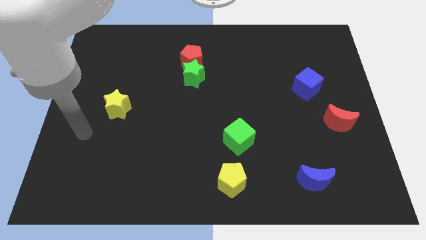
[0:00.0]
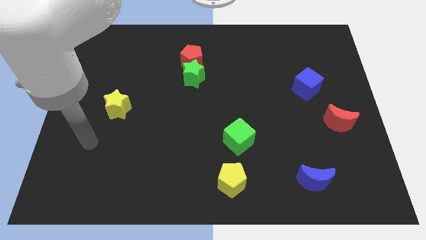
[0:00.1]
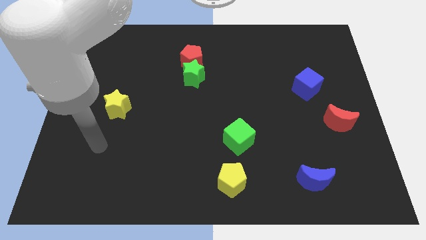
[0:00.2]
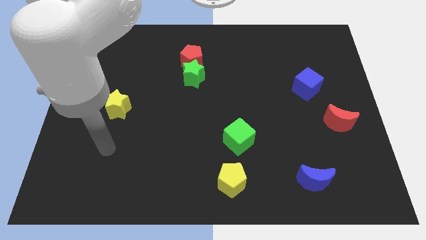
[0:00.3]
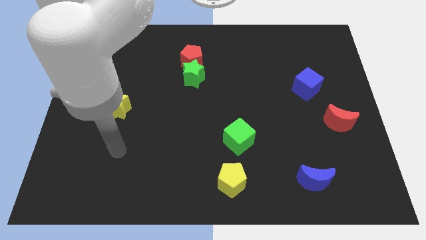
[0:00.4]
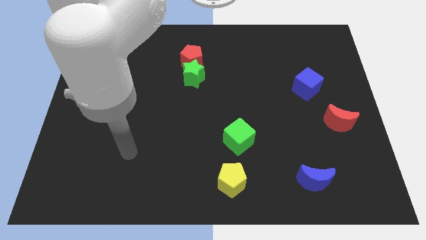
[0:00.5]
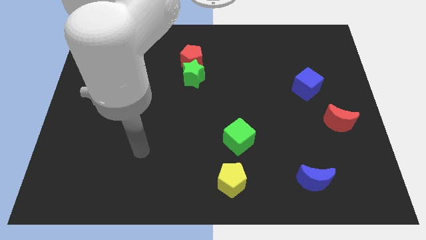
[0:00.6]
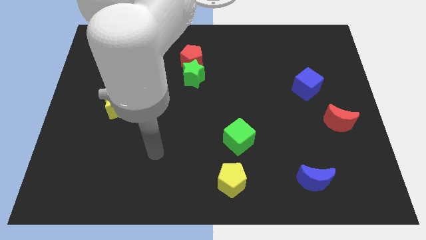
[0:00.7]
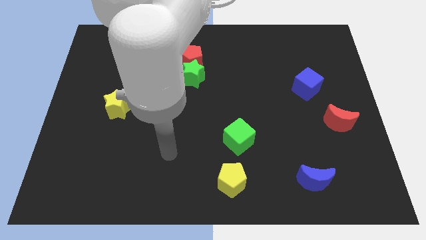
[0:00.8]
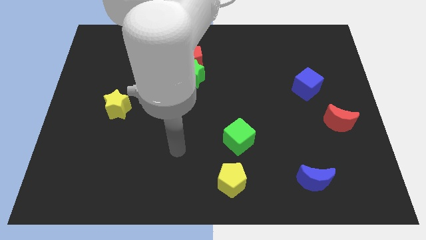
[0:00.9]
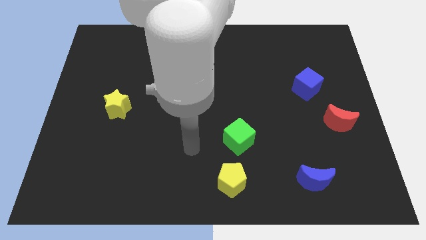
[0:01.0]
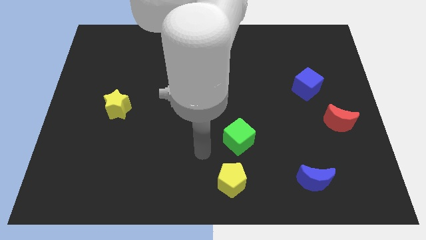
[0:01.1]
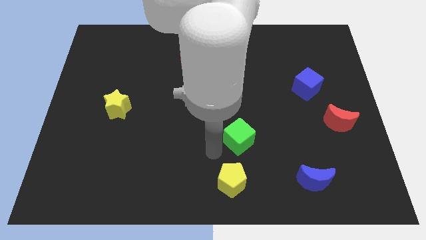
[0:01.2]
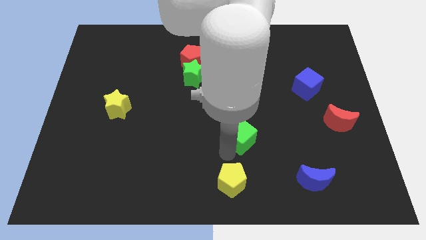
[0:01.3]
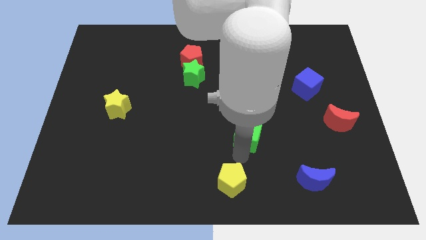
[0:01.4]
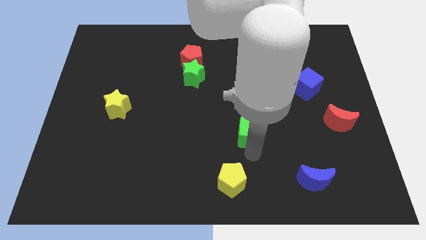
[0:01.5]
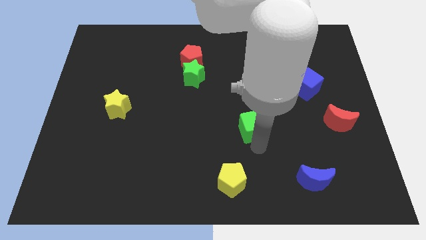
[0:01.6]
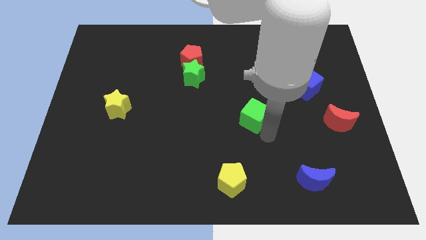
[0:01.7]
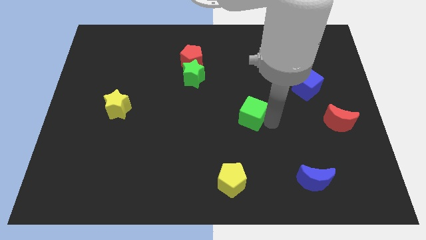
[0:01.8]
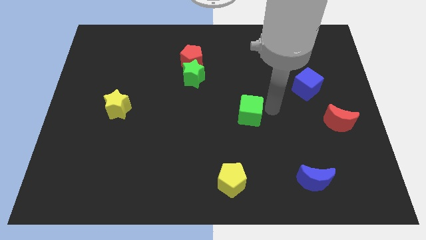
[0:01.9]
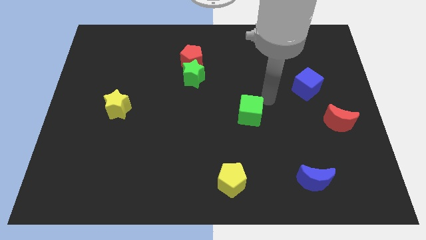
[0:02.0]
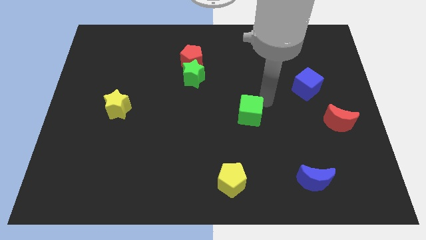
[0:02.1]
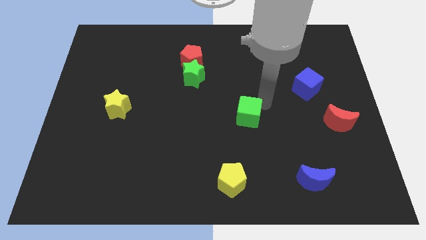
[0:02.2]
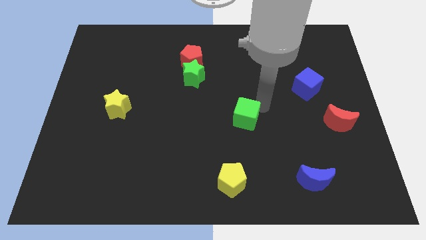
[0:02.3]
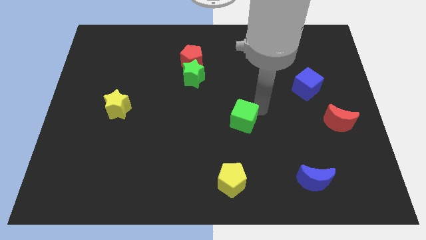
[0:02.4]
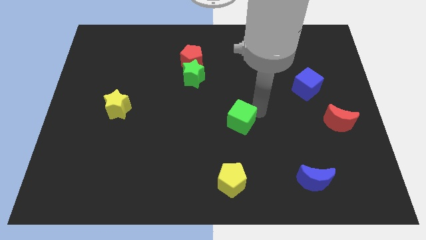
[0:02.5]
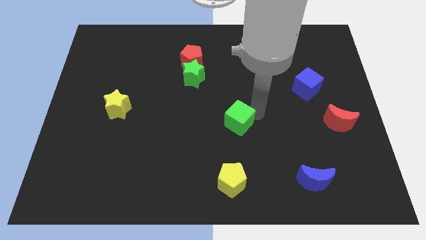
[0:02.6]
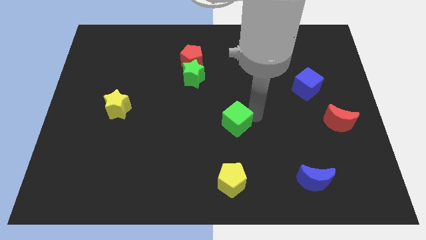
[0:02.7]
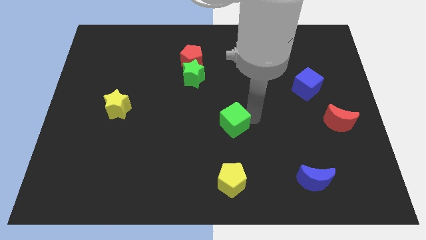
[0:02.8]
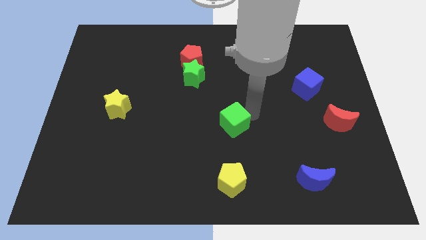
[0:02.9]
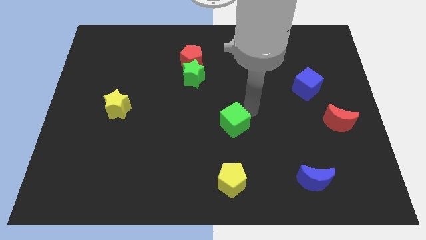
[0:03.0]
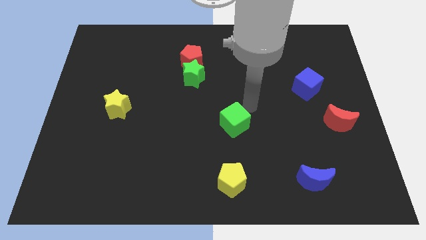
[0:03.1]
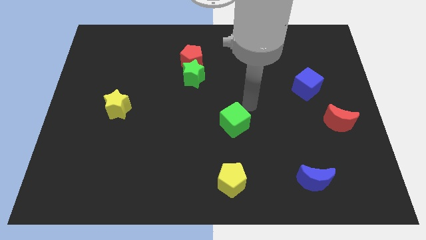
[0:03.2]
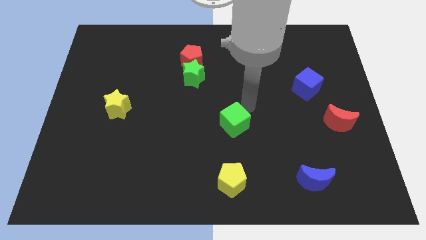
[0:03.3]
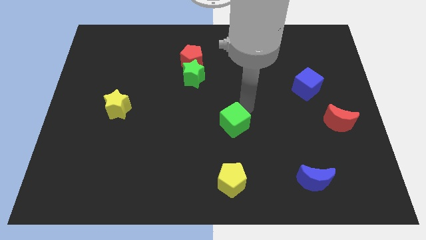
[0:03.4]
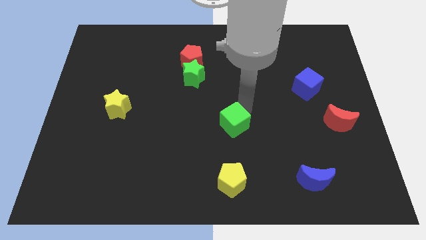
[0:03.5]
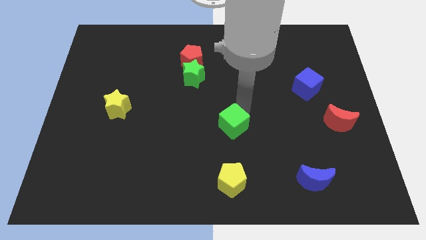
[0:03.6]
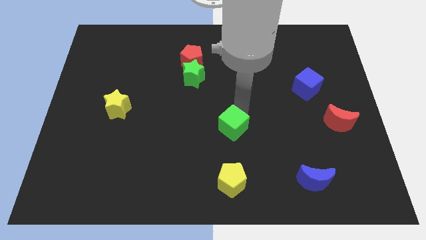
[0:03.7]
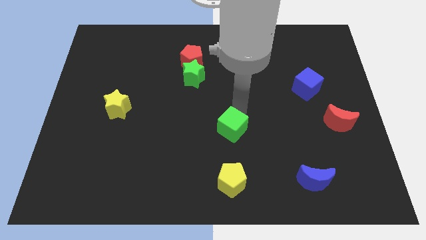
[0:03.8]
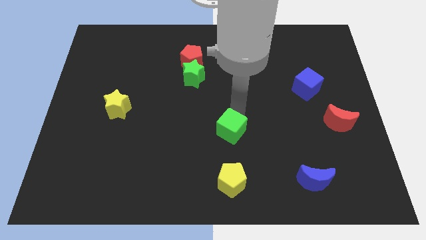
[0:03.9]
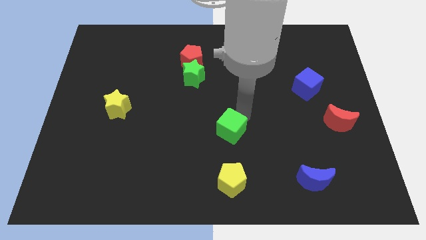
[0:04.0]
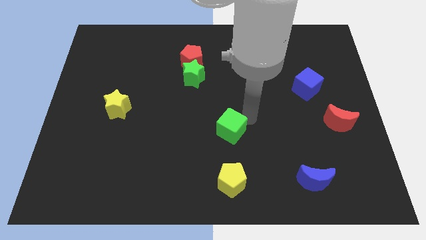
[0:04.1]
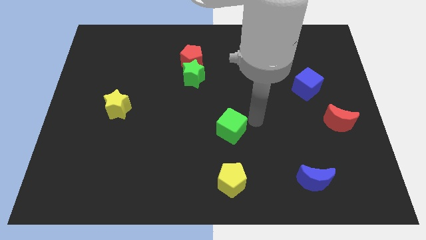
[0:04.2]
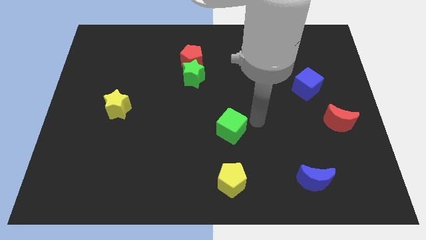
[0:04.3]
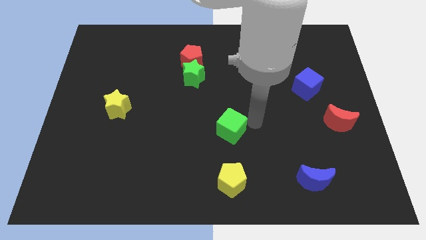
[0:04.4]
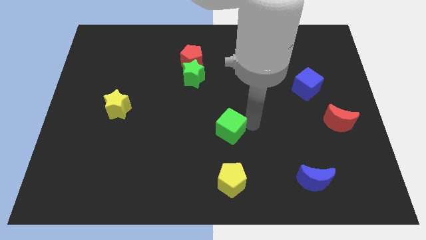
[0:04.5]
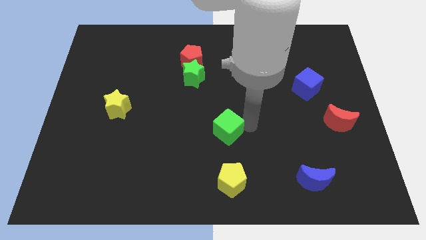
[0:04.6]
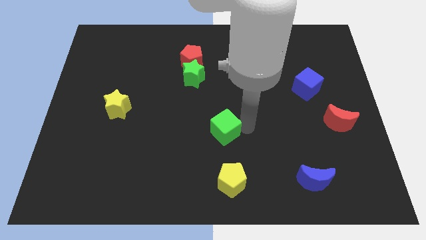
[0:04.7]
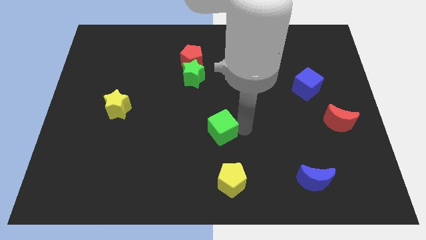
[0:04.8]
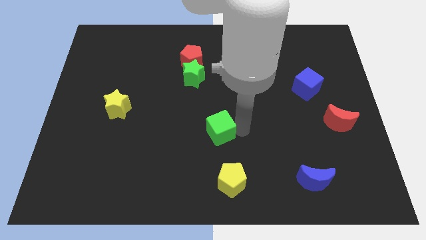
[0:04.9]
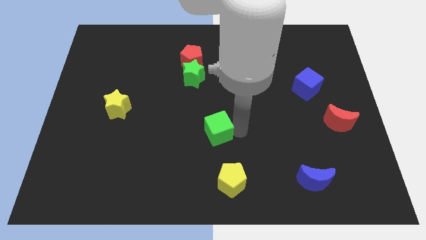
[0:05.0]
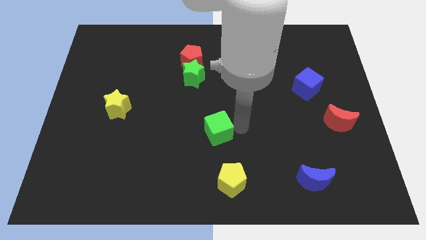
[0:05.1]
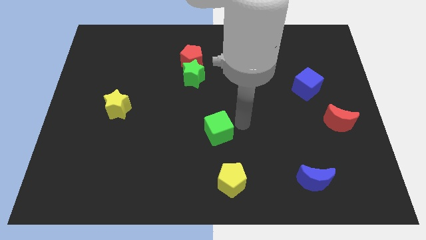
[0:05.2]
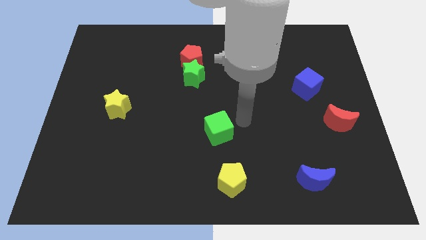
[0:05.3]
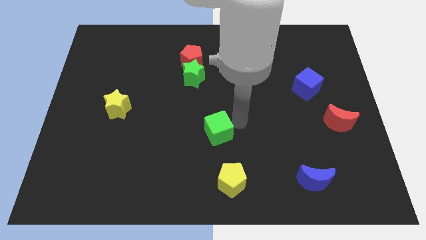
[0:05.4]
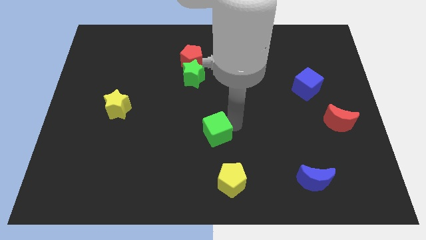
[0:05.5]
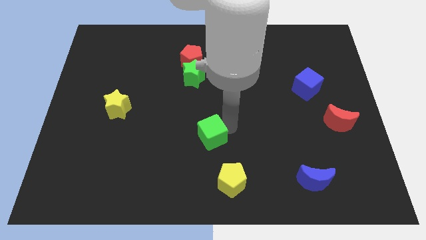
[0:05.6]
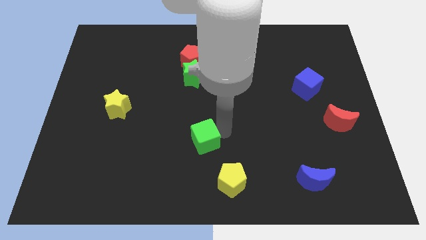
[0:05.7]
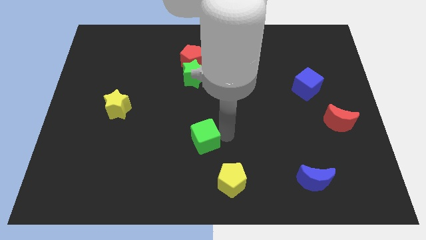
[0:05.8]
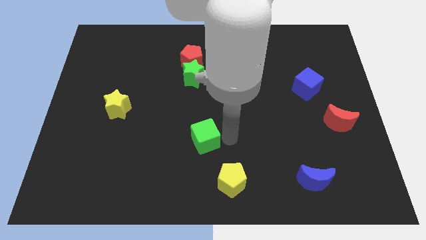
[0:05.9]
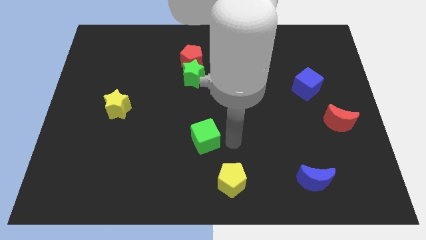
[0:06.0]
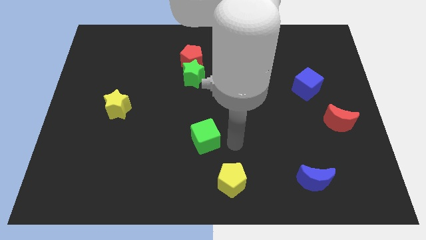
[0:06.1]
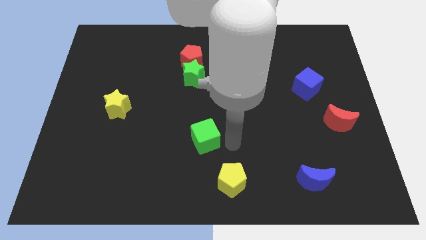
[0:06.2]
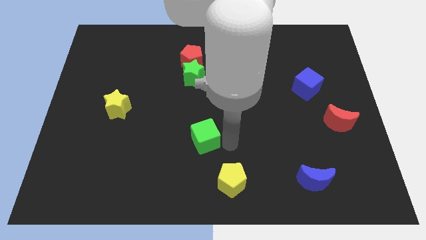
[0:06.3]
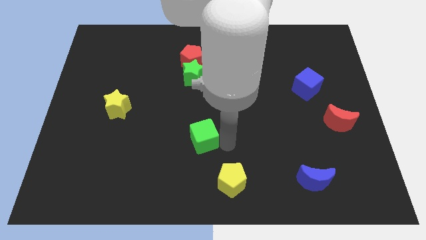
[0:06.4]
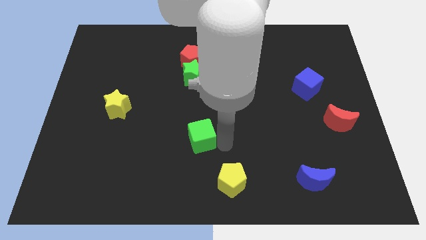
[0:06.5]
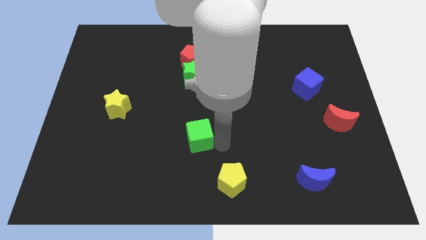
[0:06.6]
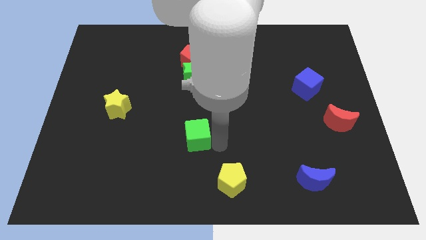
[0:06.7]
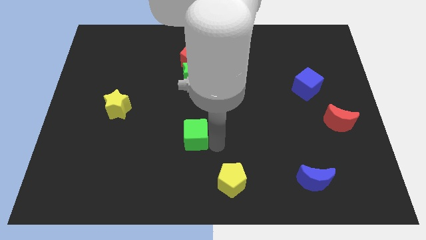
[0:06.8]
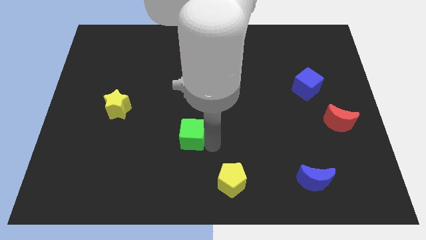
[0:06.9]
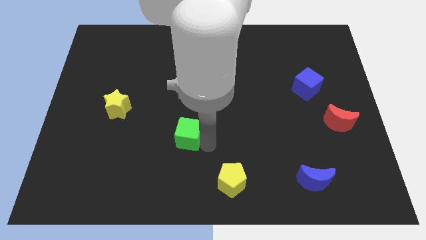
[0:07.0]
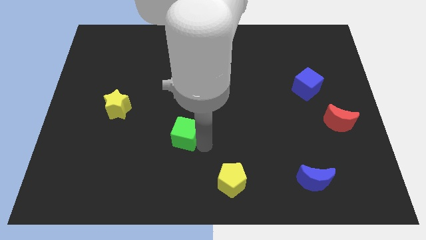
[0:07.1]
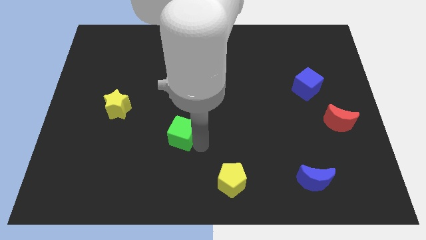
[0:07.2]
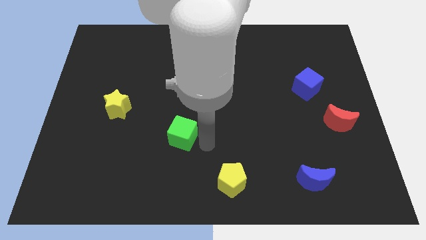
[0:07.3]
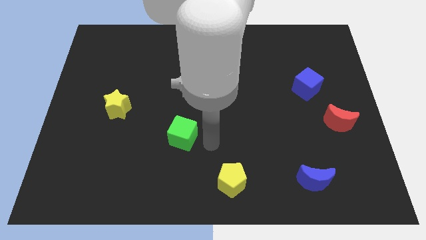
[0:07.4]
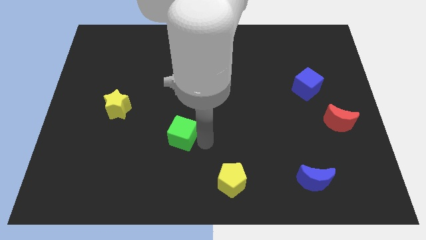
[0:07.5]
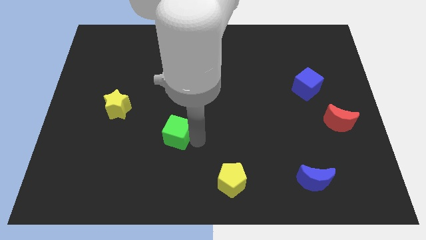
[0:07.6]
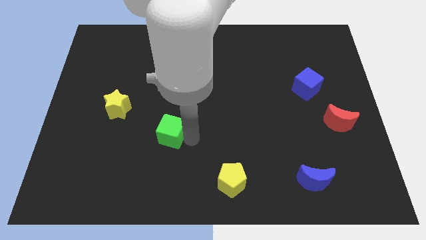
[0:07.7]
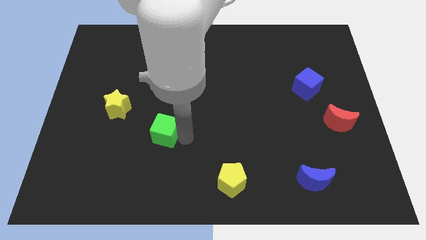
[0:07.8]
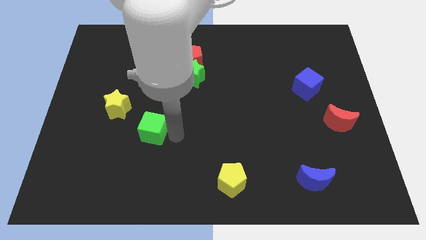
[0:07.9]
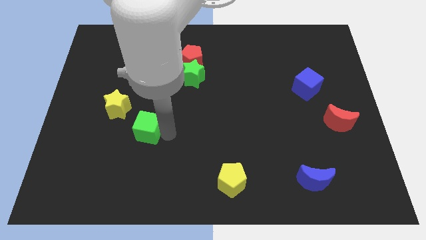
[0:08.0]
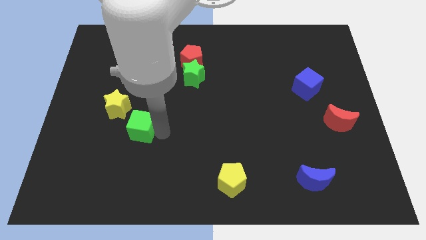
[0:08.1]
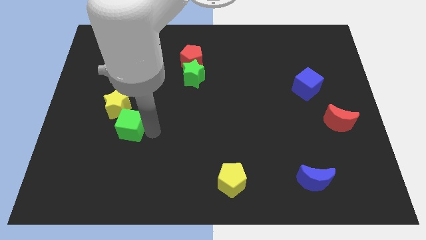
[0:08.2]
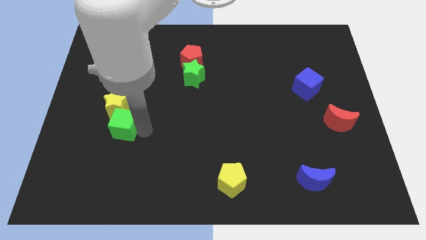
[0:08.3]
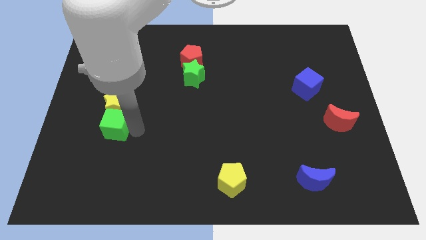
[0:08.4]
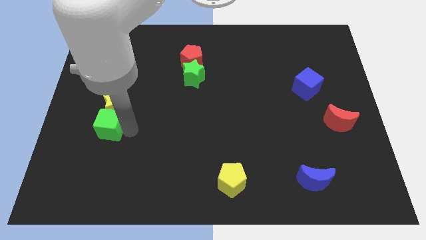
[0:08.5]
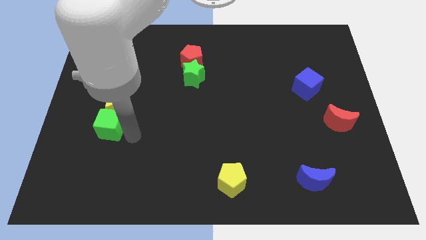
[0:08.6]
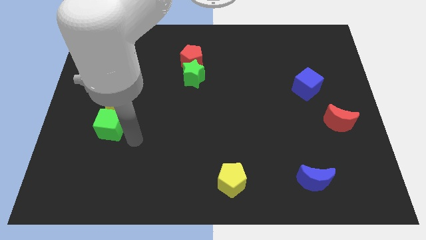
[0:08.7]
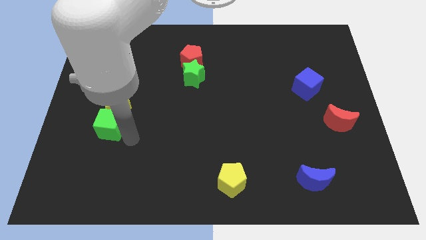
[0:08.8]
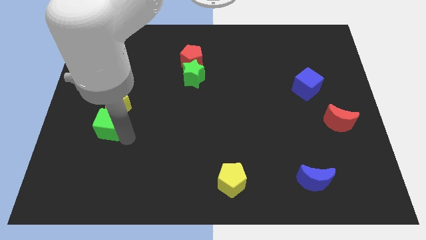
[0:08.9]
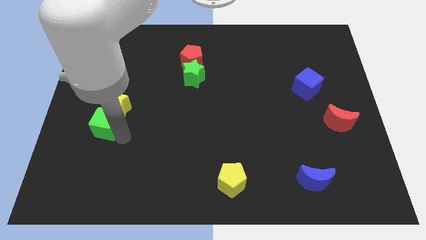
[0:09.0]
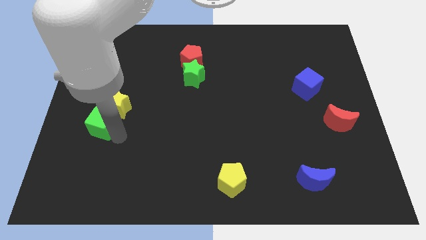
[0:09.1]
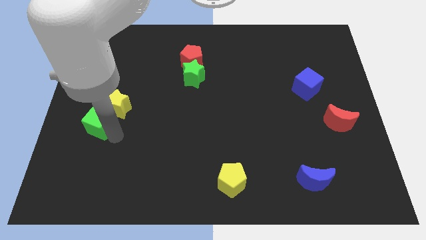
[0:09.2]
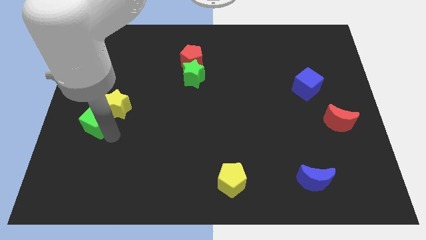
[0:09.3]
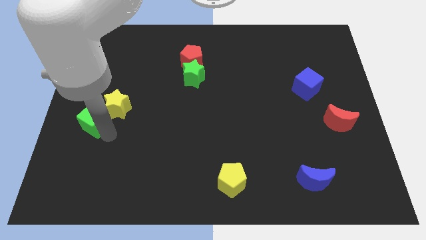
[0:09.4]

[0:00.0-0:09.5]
push the green cube to the center left
